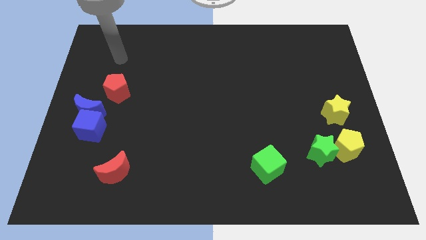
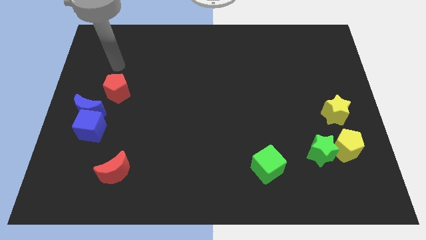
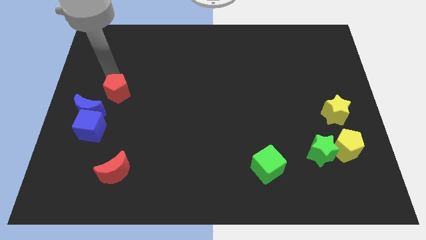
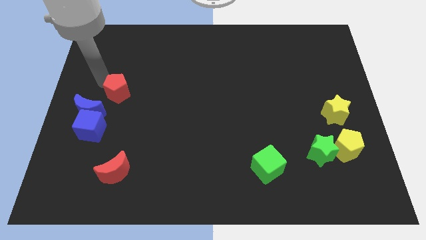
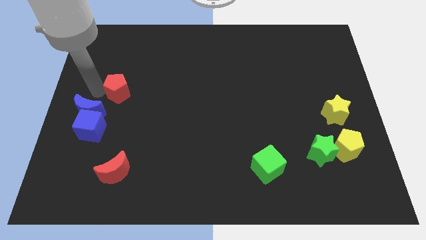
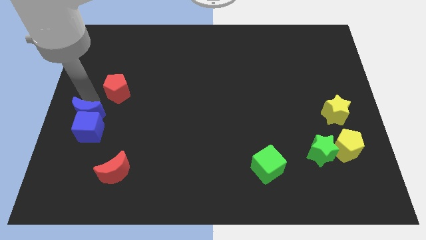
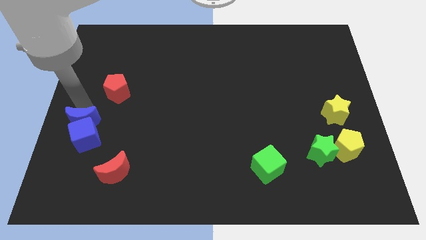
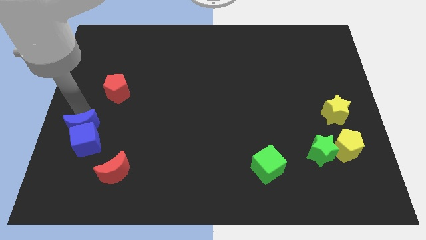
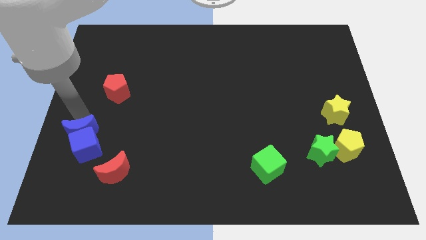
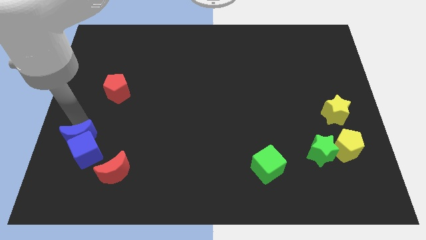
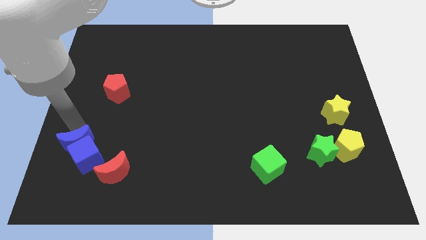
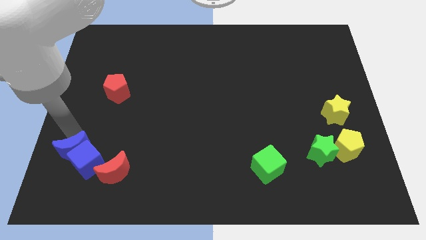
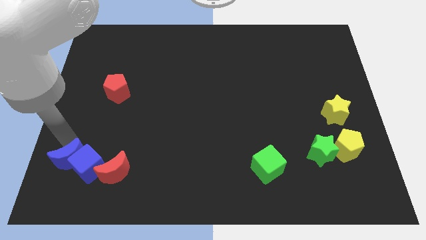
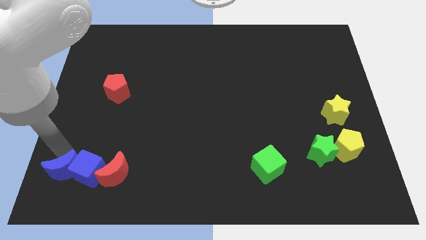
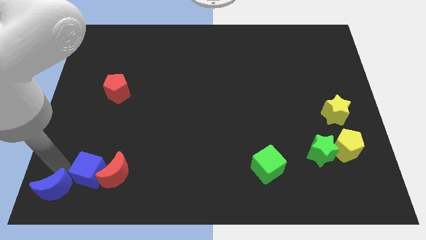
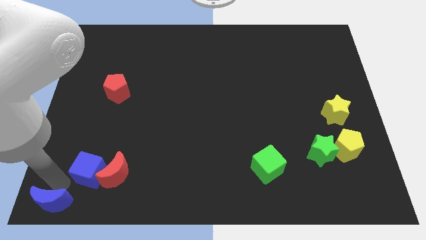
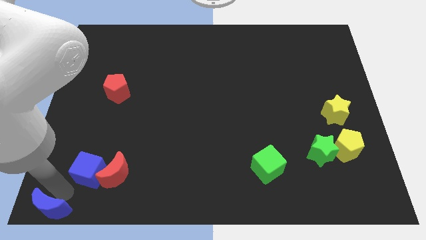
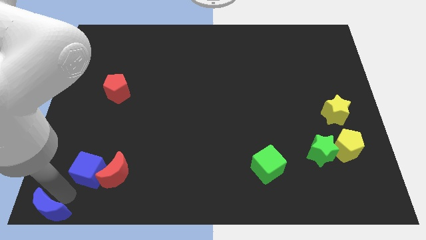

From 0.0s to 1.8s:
move the blue cube away from the blue moon

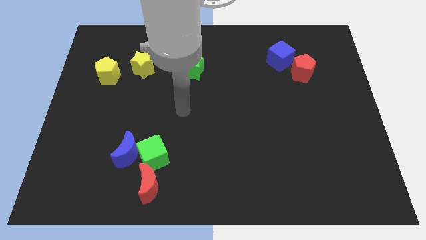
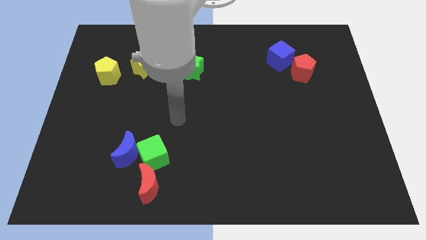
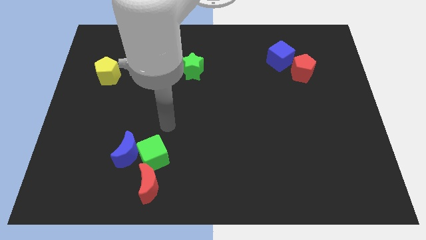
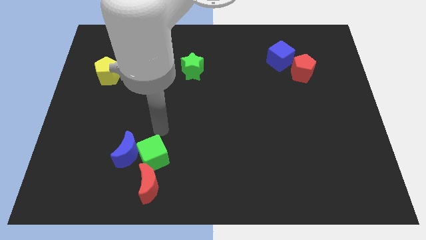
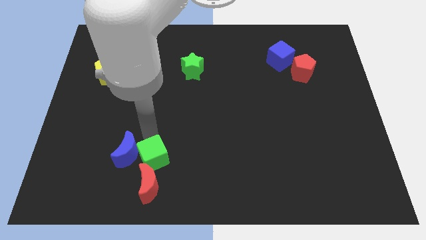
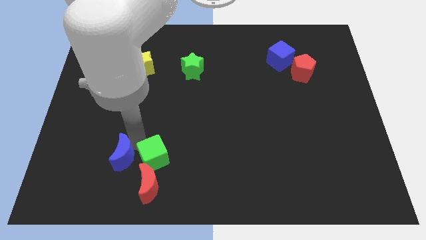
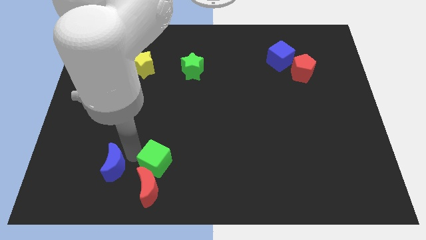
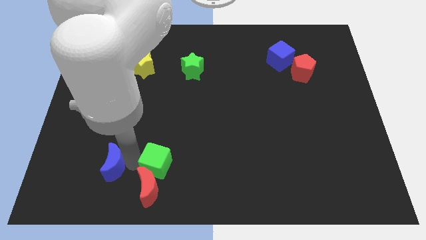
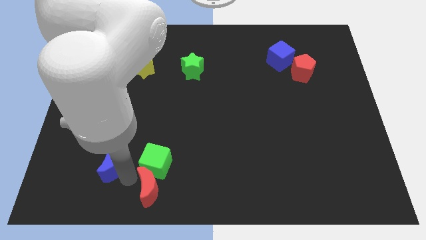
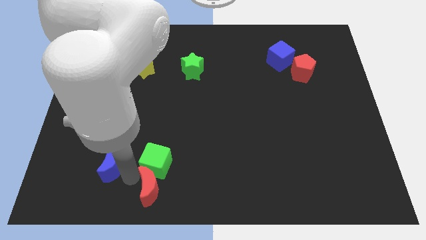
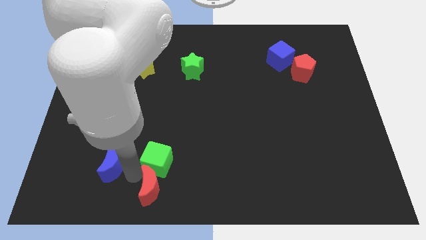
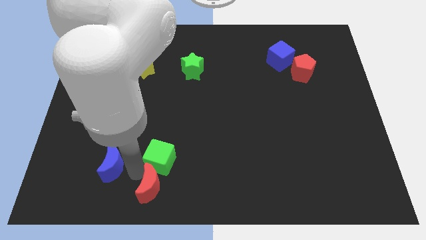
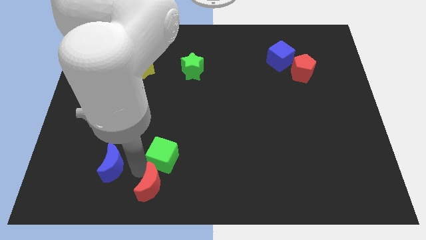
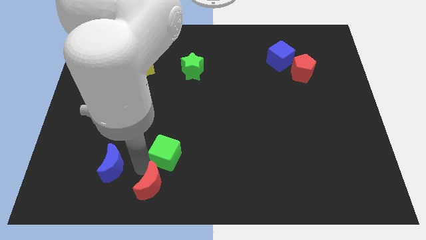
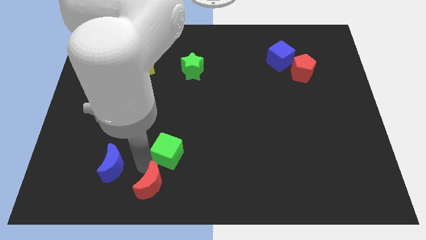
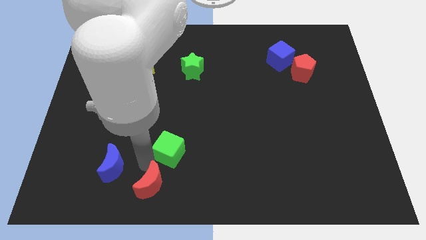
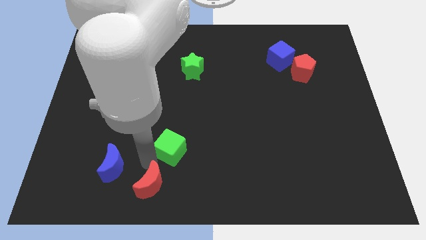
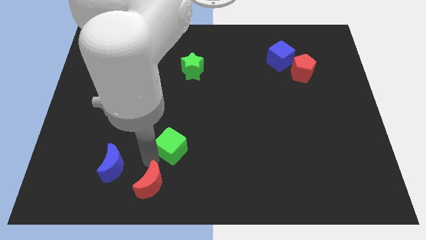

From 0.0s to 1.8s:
separate the green cube from the blue moon and red moon

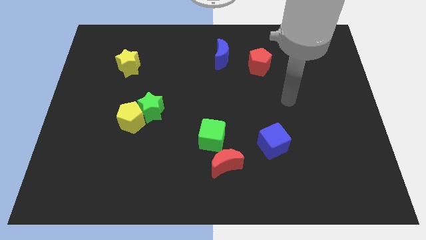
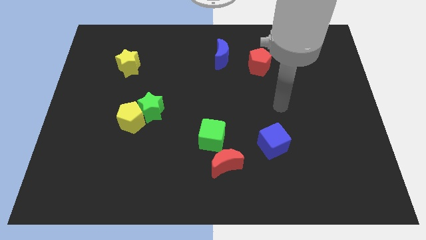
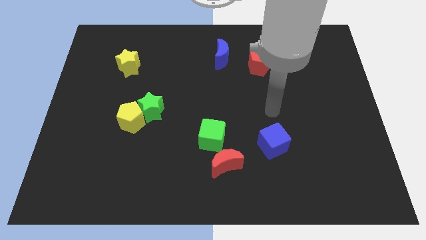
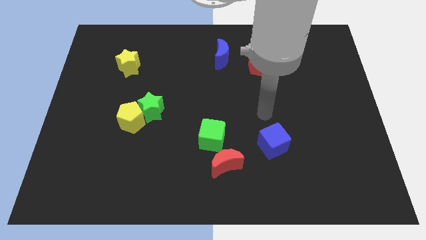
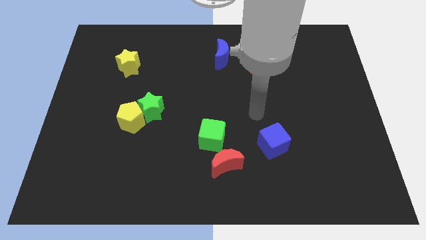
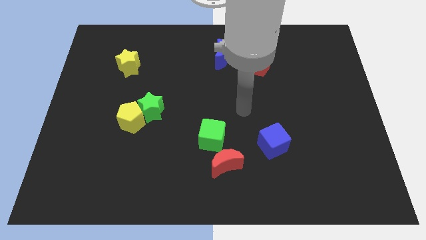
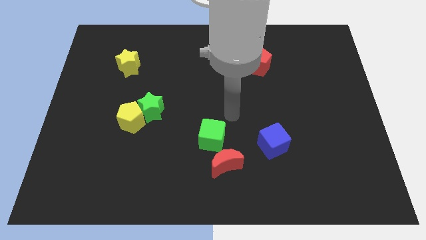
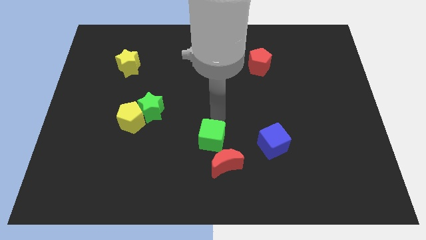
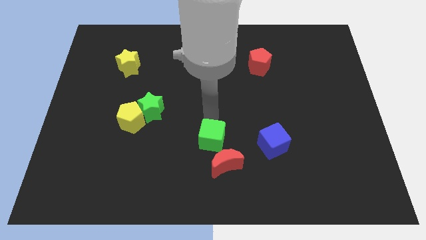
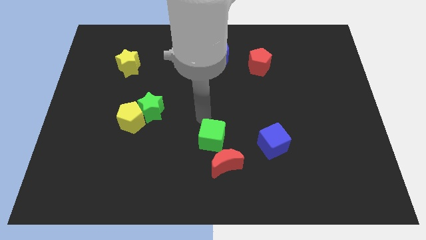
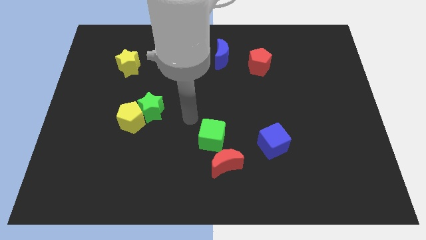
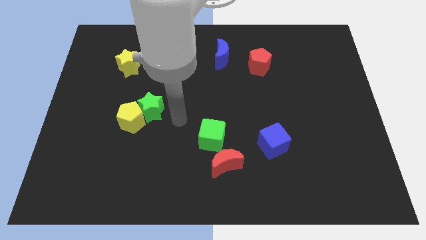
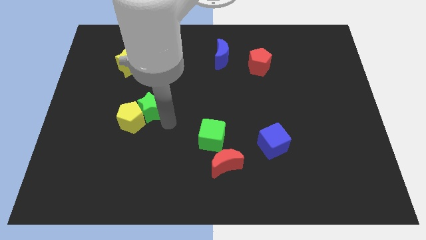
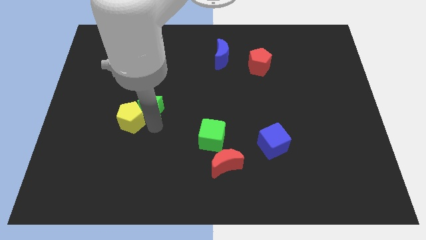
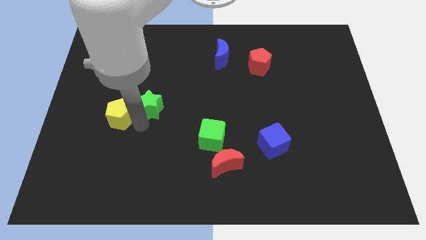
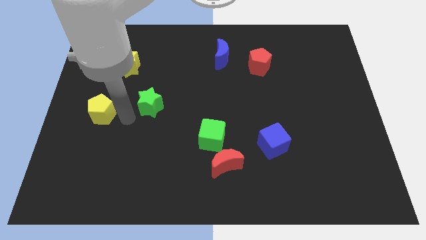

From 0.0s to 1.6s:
move the green star away from the yellow pentagon

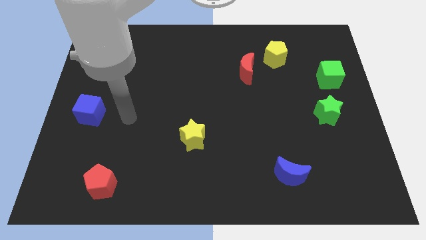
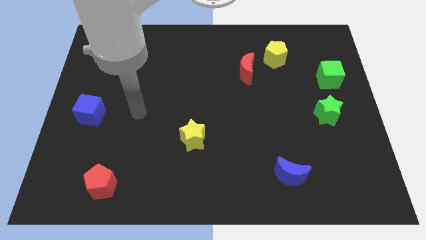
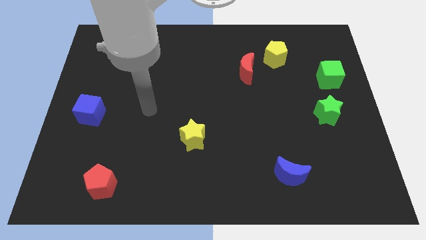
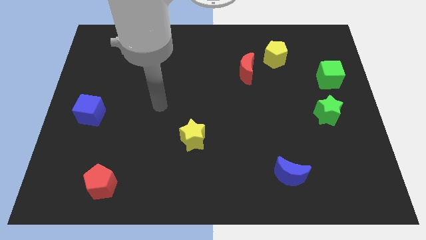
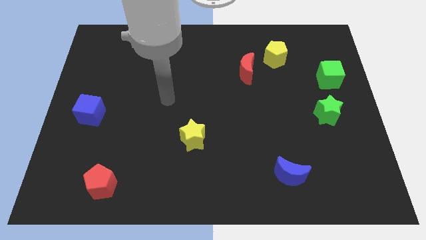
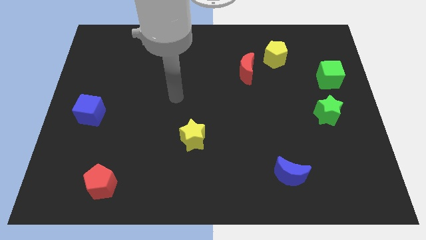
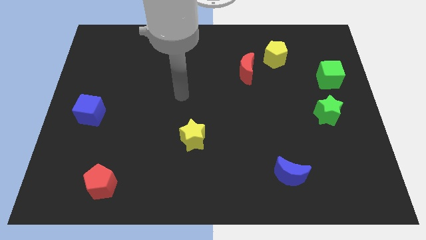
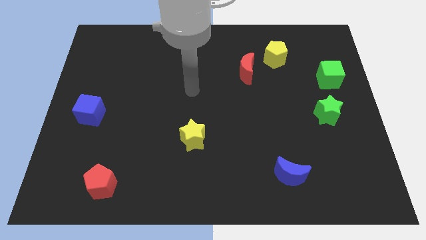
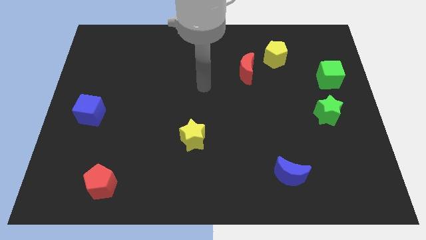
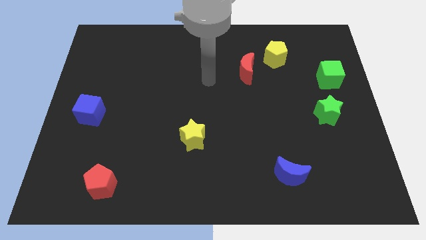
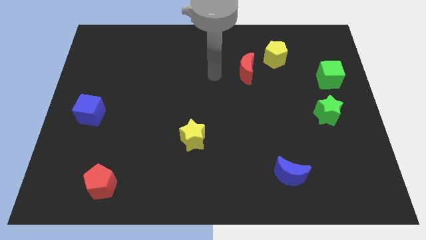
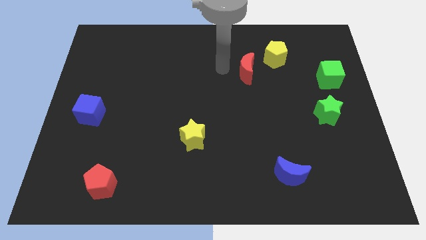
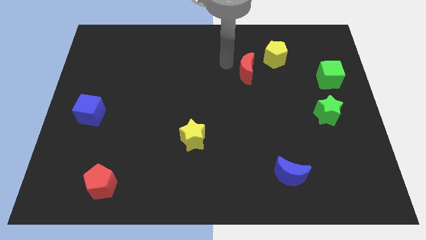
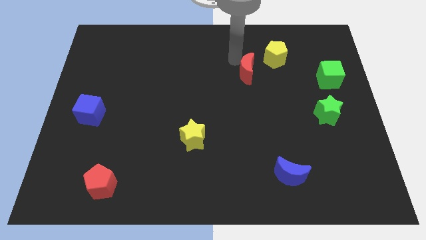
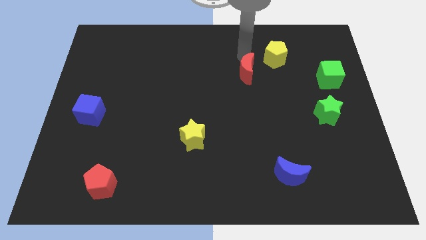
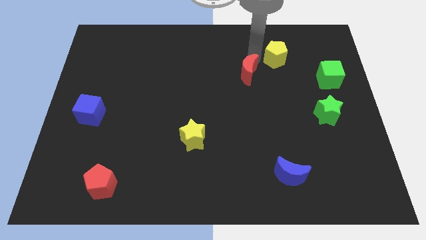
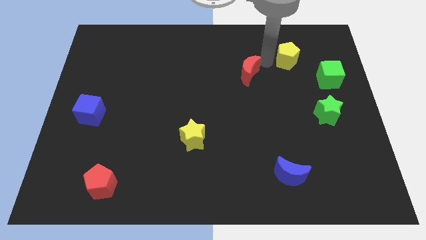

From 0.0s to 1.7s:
move the red moon away from the yellow pentagon

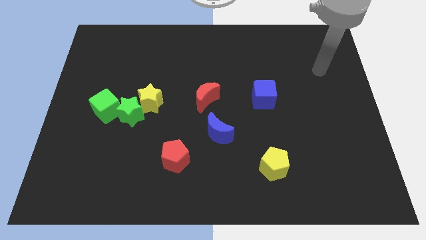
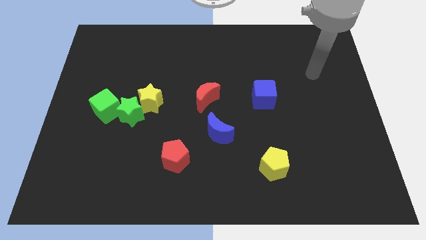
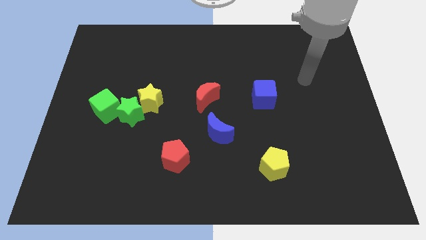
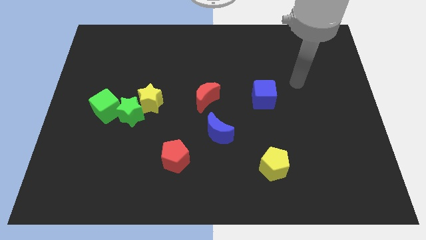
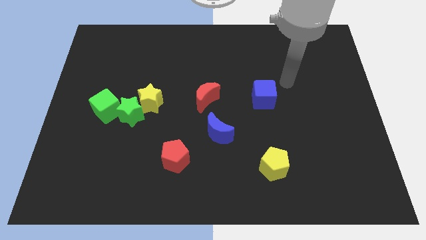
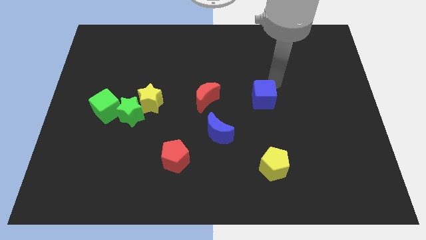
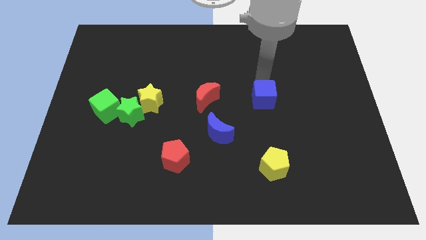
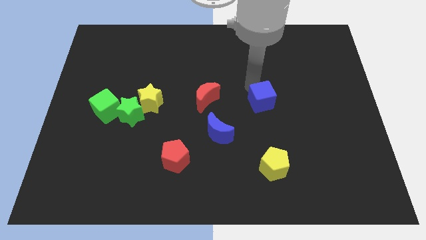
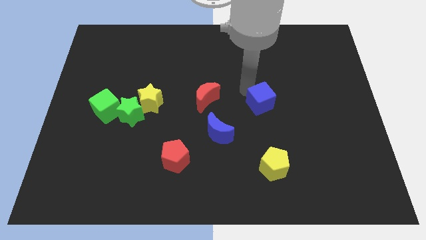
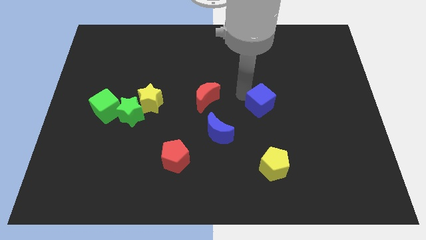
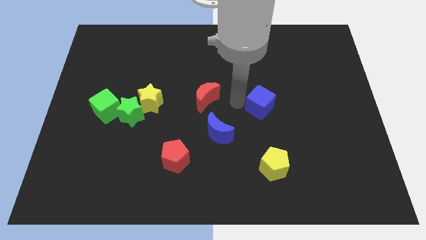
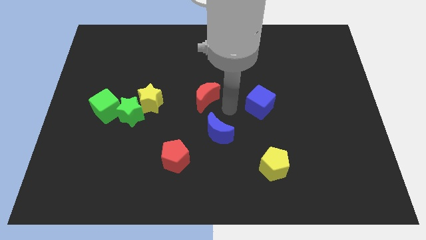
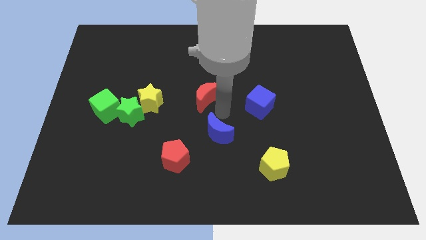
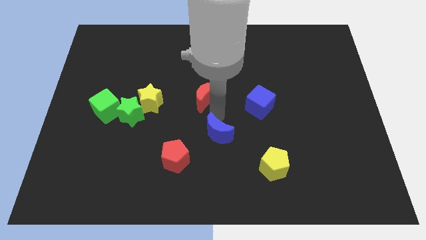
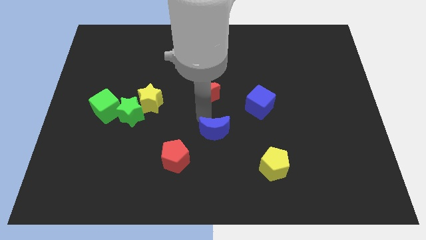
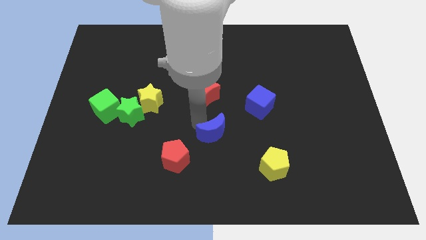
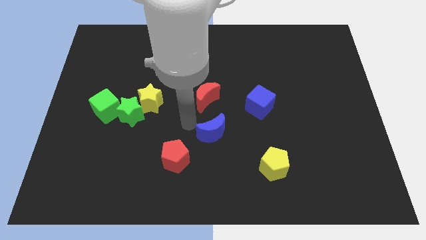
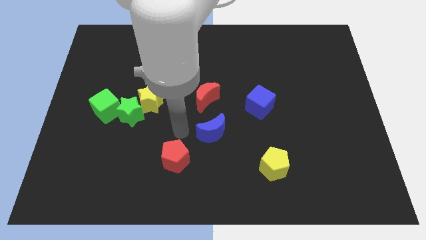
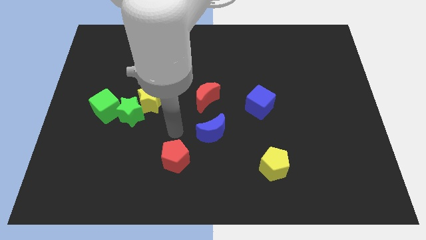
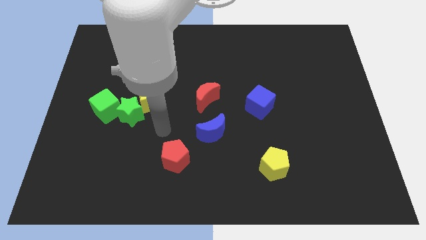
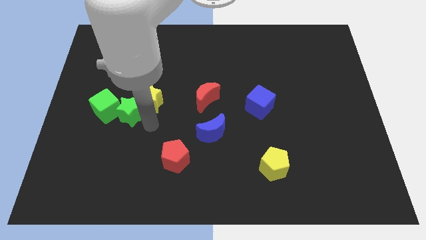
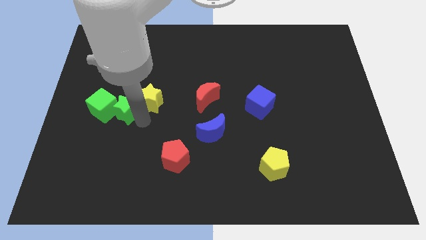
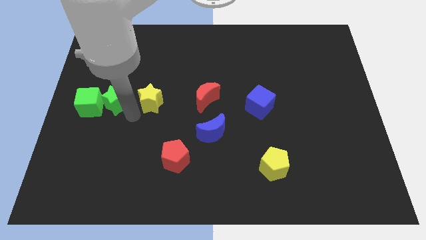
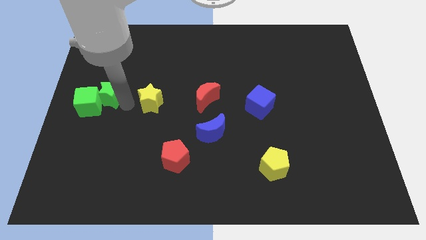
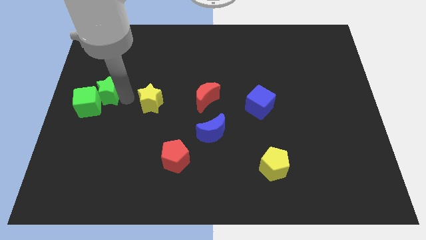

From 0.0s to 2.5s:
move the yellow star away from the green star

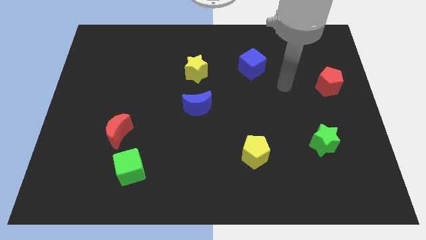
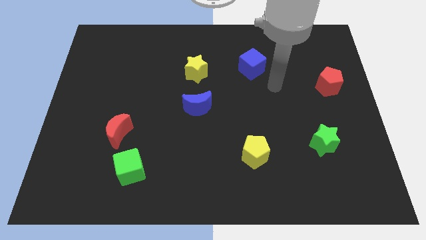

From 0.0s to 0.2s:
pull the red moon apart from the green cube
